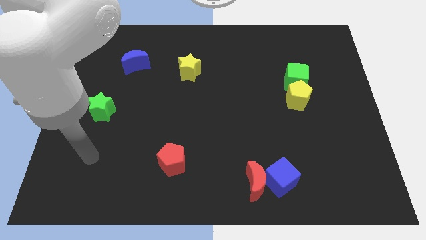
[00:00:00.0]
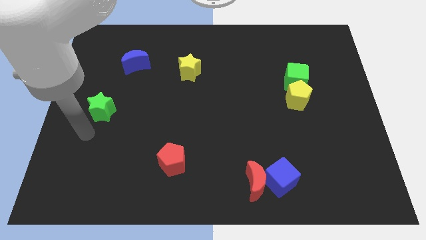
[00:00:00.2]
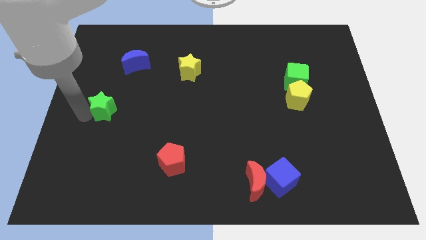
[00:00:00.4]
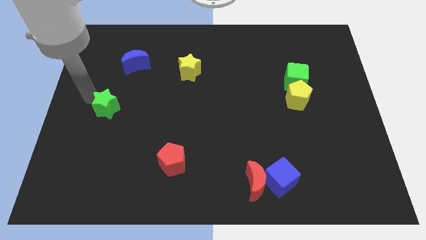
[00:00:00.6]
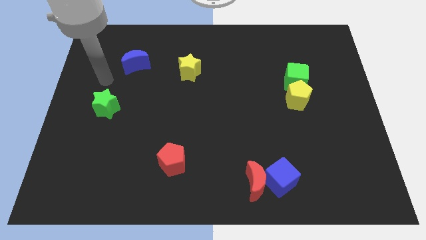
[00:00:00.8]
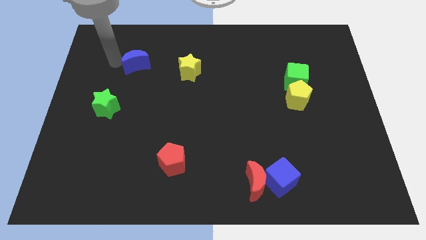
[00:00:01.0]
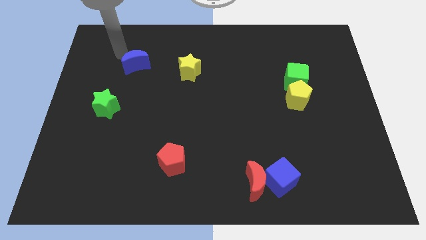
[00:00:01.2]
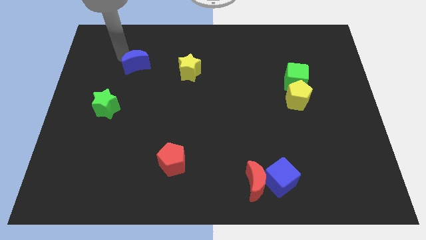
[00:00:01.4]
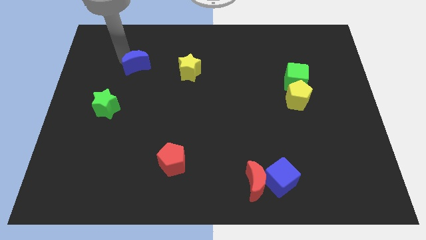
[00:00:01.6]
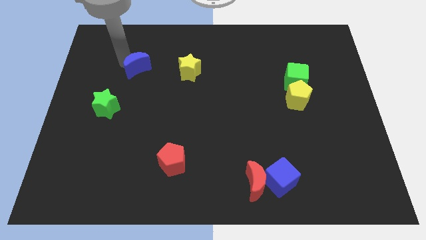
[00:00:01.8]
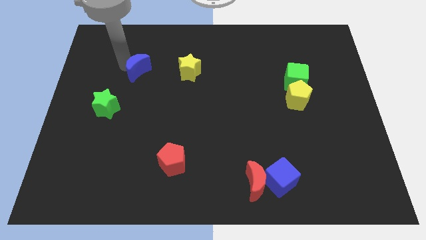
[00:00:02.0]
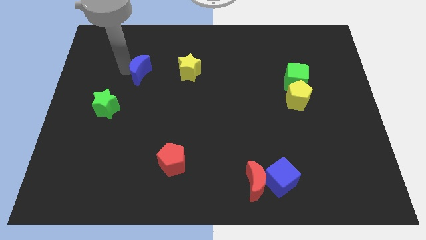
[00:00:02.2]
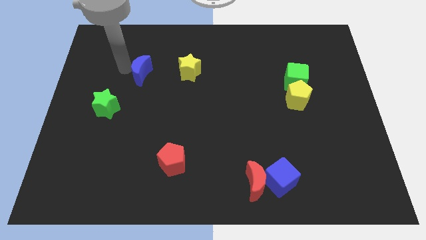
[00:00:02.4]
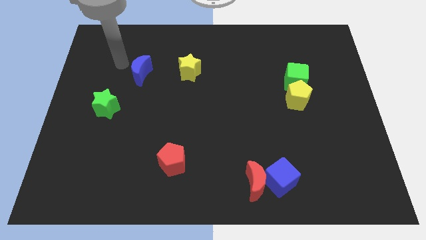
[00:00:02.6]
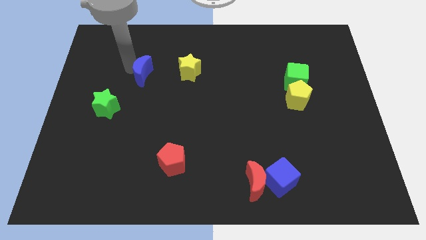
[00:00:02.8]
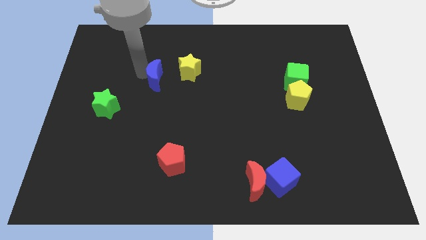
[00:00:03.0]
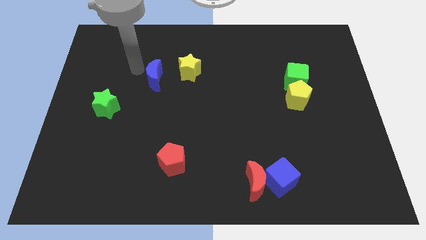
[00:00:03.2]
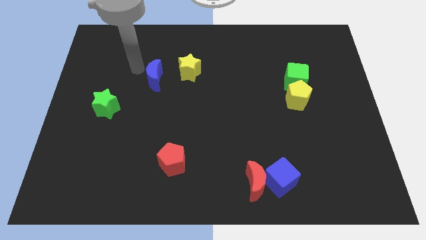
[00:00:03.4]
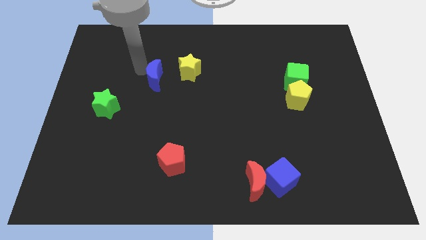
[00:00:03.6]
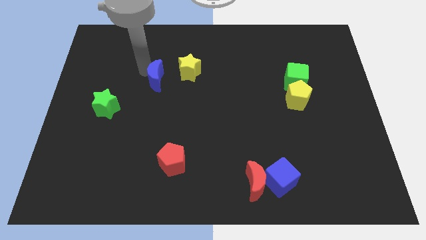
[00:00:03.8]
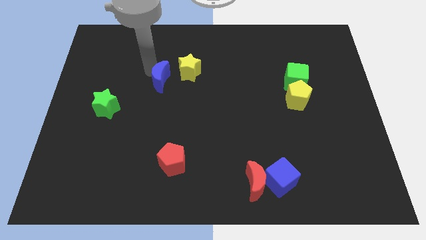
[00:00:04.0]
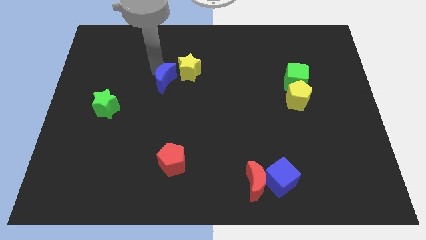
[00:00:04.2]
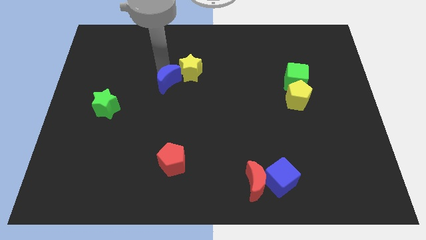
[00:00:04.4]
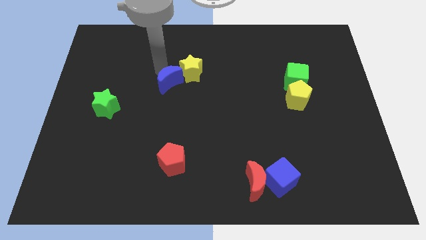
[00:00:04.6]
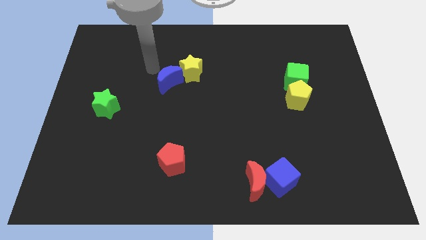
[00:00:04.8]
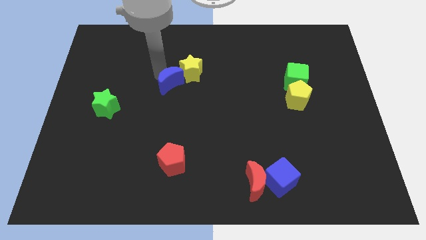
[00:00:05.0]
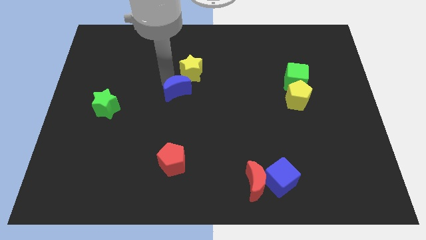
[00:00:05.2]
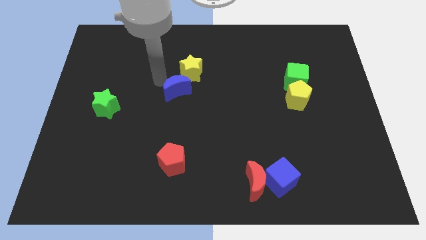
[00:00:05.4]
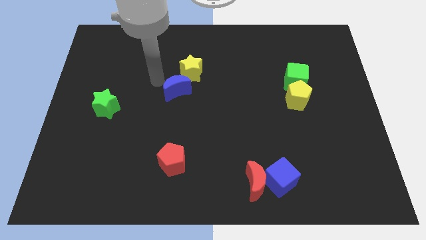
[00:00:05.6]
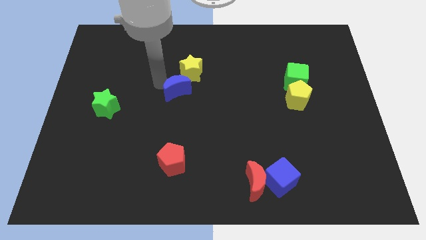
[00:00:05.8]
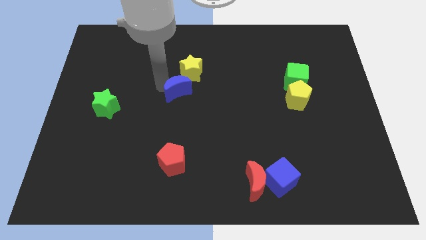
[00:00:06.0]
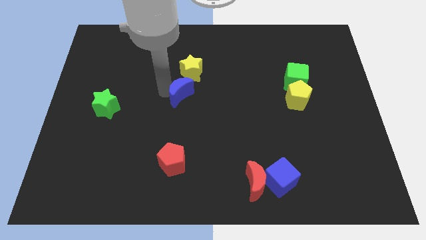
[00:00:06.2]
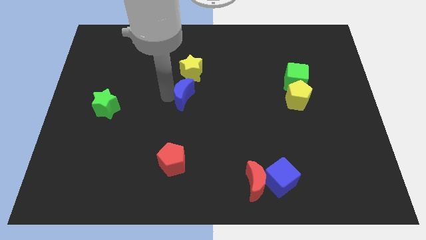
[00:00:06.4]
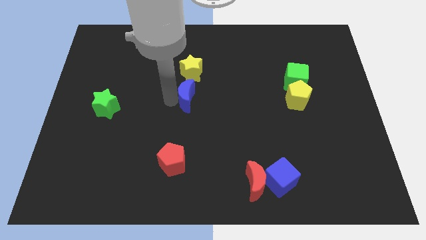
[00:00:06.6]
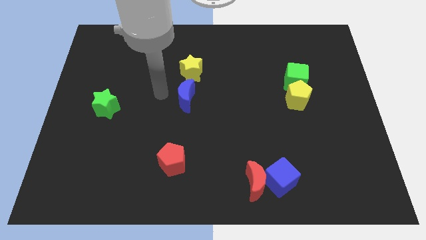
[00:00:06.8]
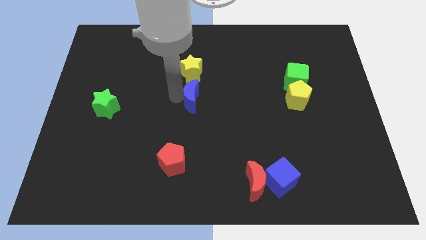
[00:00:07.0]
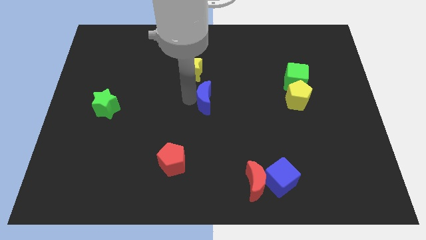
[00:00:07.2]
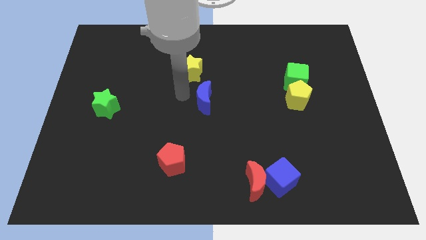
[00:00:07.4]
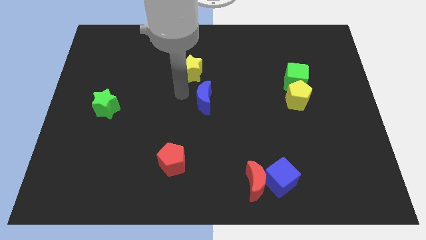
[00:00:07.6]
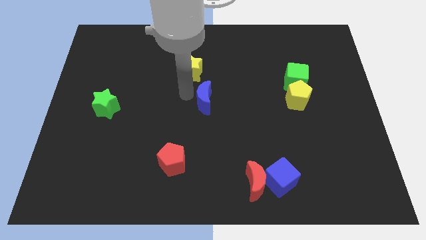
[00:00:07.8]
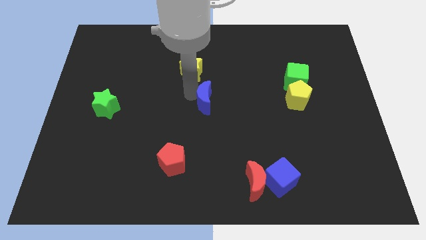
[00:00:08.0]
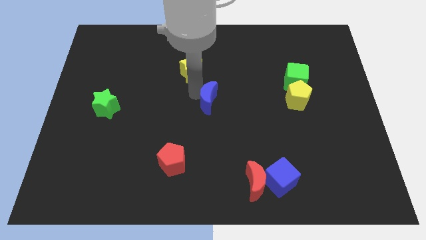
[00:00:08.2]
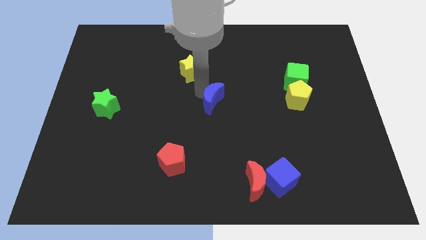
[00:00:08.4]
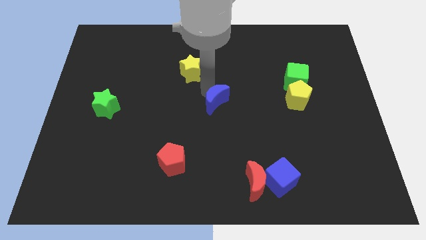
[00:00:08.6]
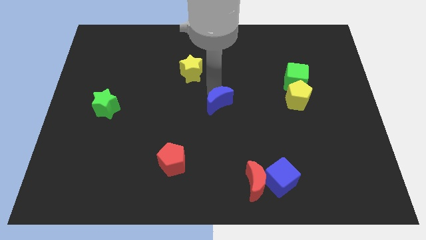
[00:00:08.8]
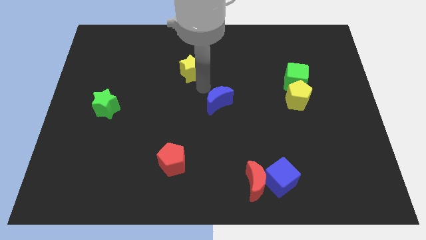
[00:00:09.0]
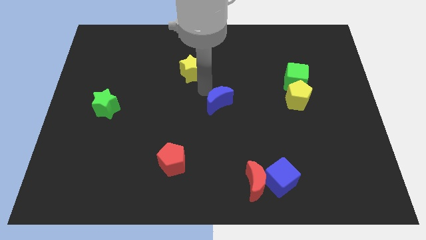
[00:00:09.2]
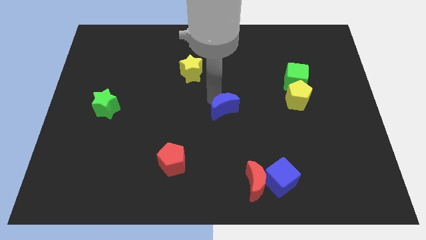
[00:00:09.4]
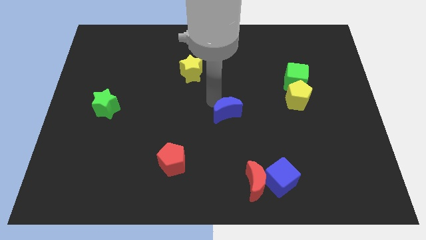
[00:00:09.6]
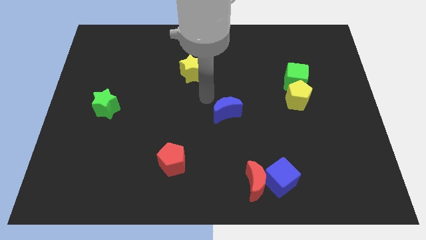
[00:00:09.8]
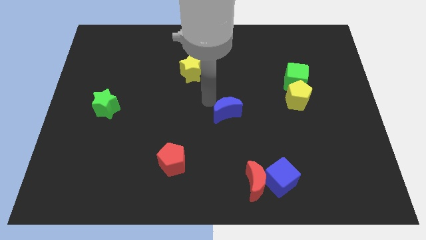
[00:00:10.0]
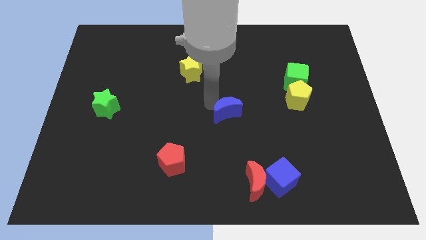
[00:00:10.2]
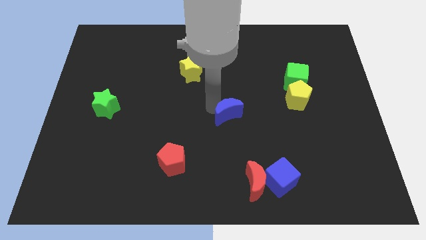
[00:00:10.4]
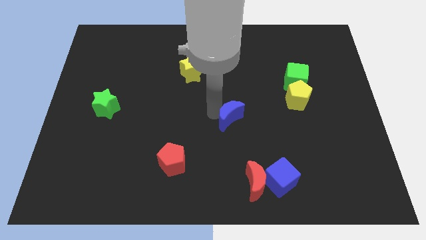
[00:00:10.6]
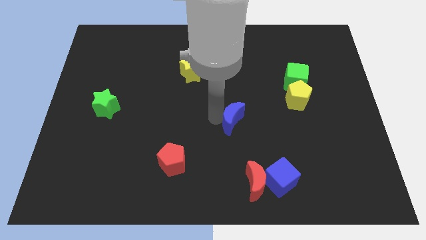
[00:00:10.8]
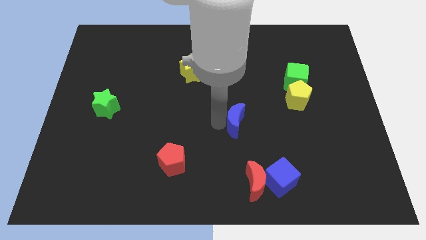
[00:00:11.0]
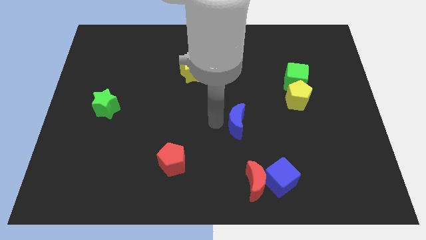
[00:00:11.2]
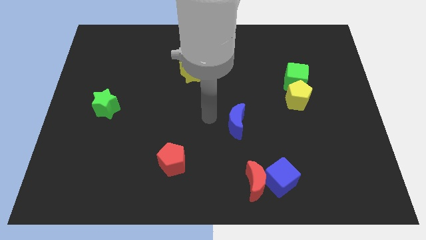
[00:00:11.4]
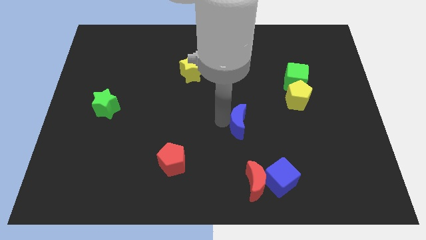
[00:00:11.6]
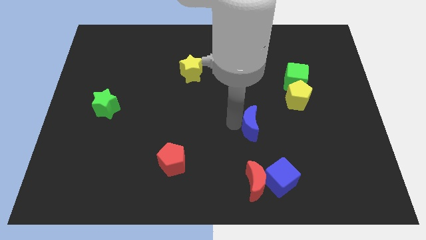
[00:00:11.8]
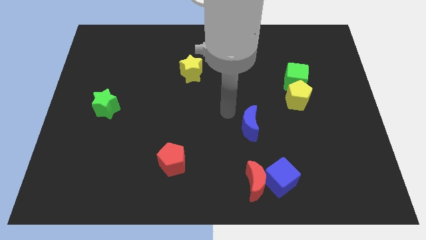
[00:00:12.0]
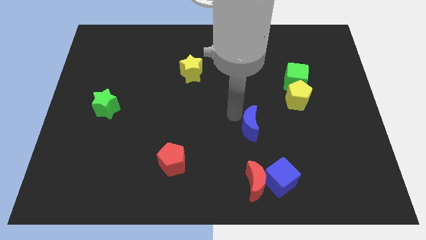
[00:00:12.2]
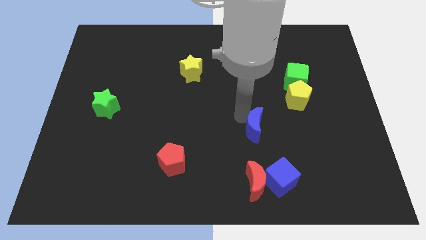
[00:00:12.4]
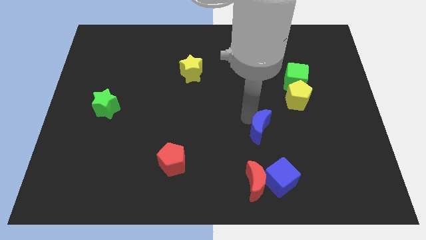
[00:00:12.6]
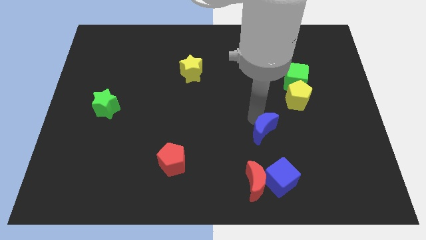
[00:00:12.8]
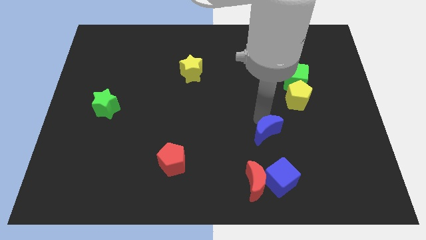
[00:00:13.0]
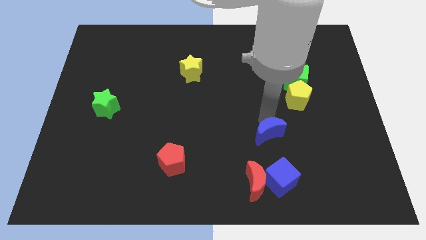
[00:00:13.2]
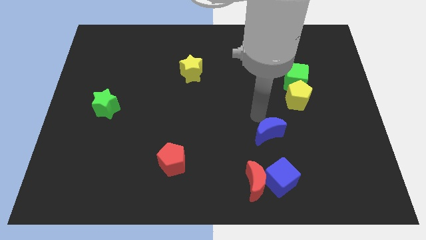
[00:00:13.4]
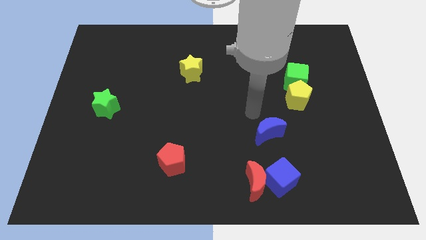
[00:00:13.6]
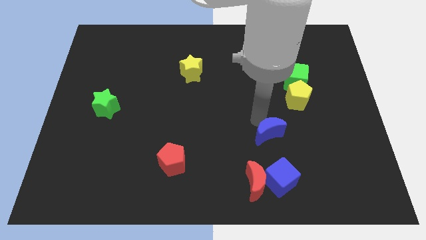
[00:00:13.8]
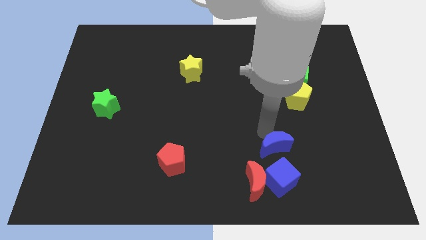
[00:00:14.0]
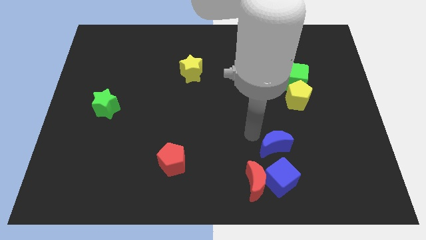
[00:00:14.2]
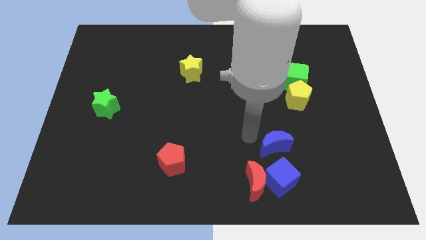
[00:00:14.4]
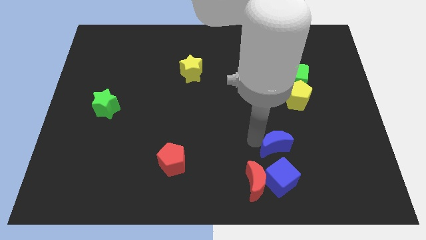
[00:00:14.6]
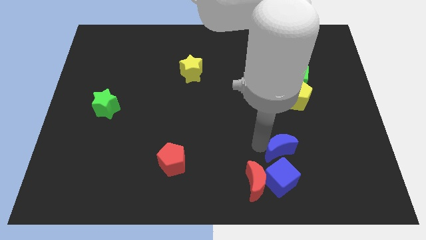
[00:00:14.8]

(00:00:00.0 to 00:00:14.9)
put the blue moon diagonally up and to the right of the blue cube
